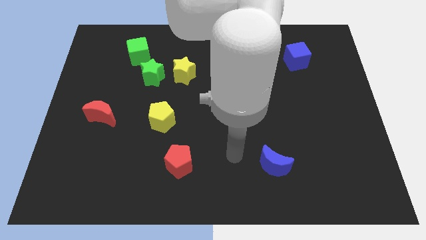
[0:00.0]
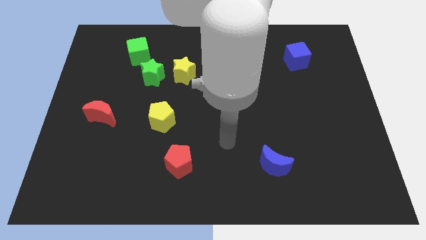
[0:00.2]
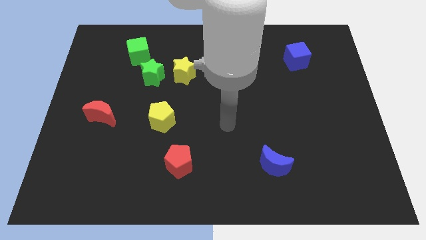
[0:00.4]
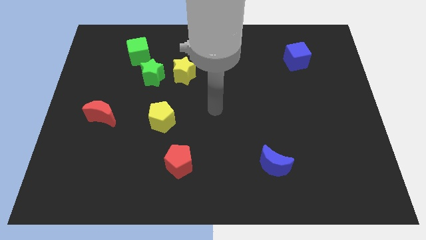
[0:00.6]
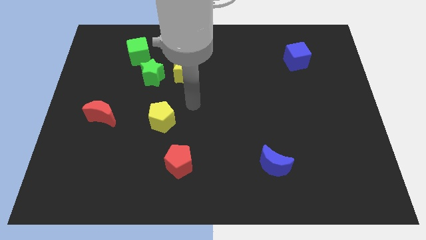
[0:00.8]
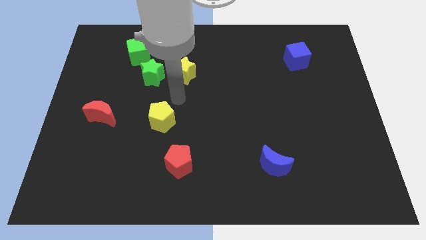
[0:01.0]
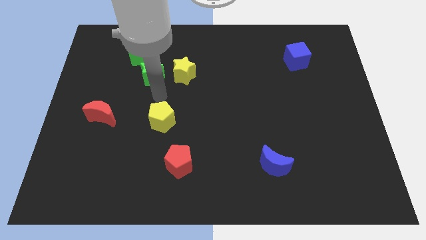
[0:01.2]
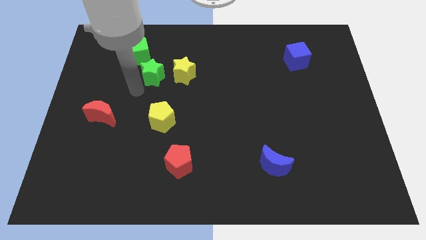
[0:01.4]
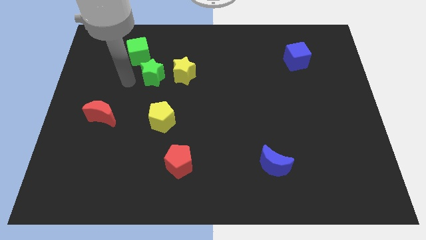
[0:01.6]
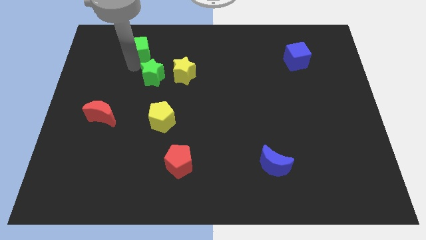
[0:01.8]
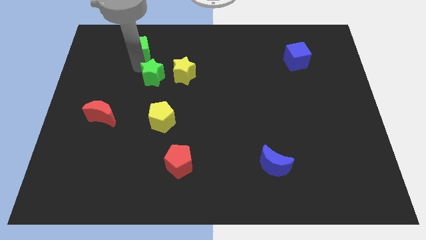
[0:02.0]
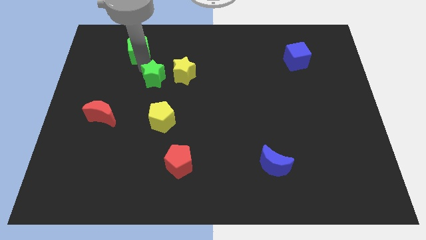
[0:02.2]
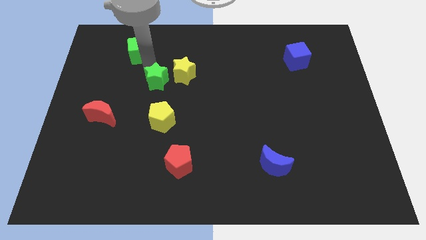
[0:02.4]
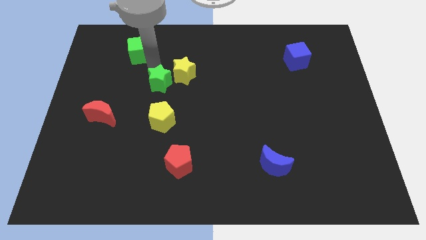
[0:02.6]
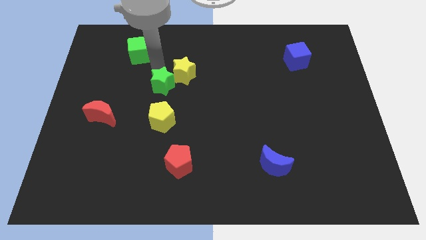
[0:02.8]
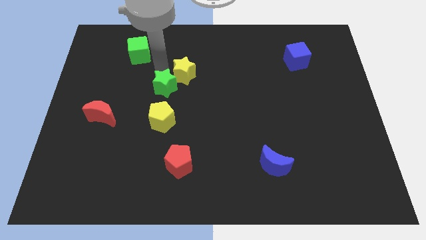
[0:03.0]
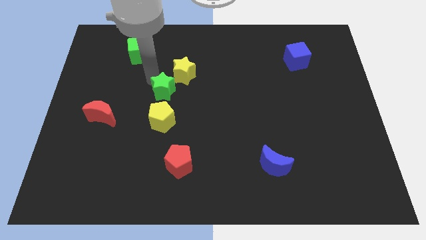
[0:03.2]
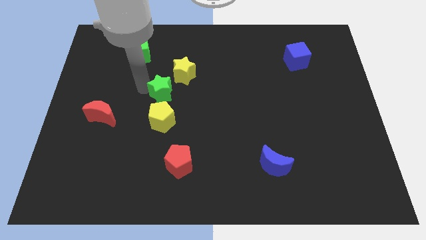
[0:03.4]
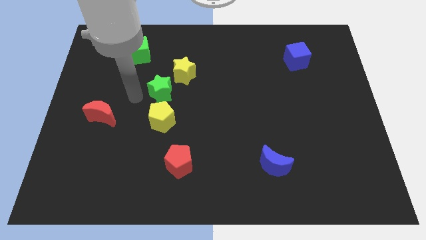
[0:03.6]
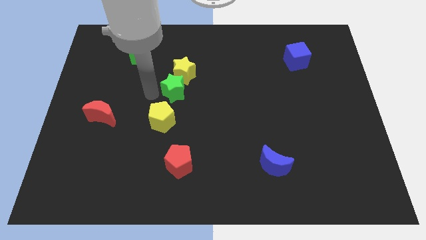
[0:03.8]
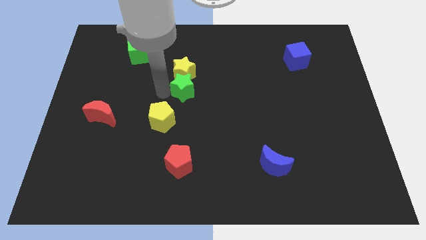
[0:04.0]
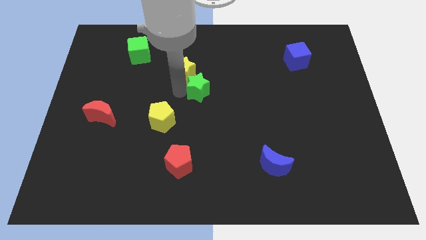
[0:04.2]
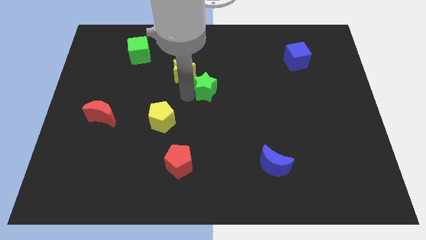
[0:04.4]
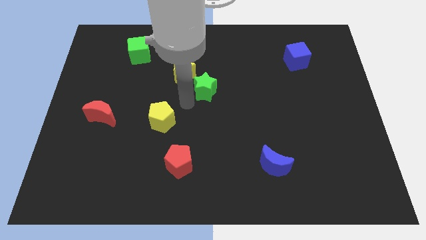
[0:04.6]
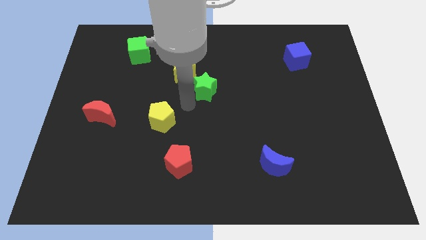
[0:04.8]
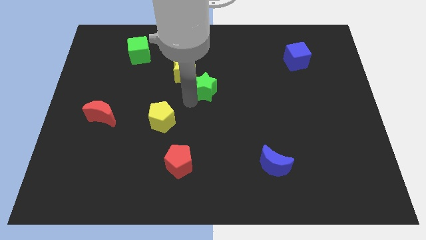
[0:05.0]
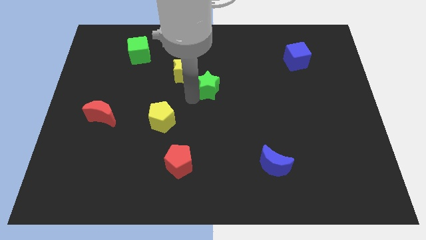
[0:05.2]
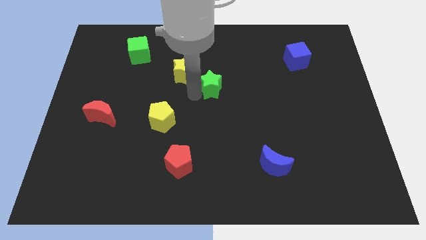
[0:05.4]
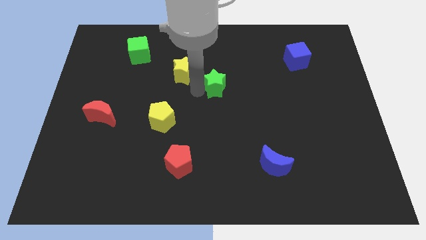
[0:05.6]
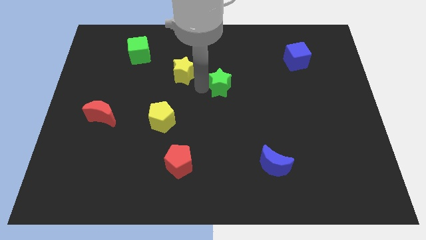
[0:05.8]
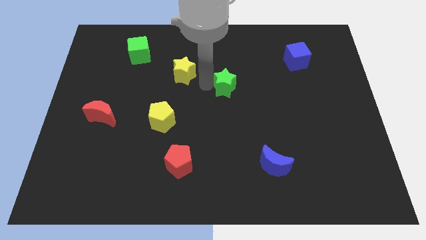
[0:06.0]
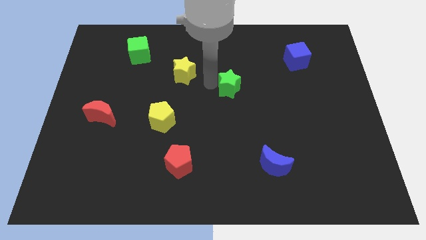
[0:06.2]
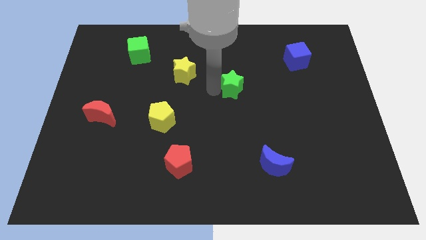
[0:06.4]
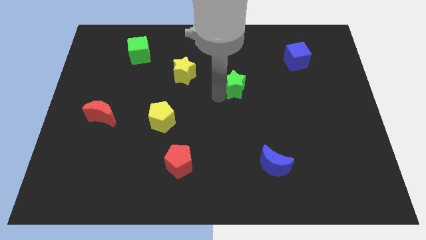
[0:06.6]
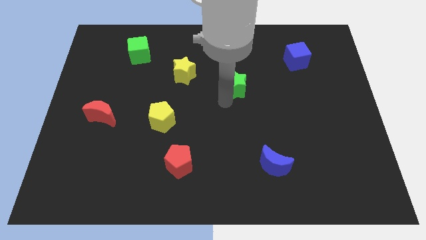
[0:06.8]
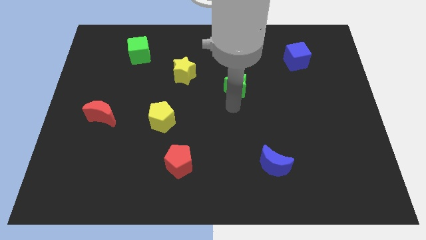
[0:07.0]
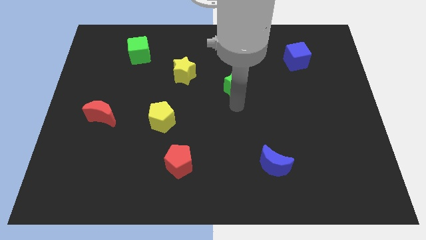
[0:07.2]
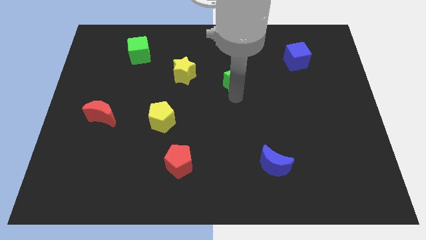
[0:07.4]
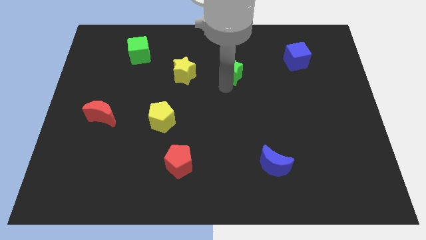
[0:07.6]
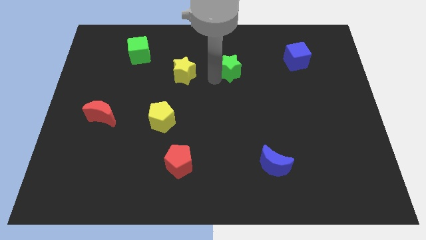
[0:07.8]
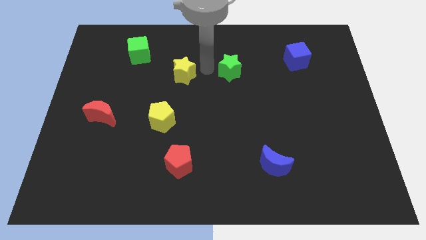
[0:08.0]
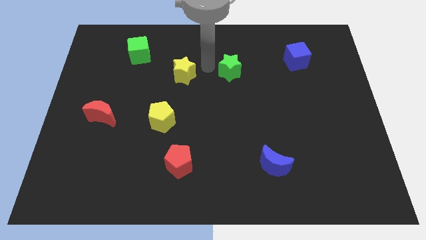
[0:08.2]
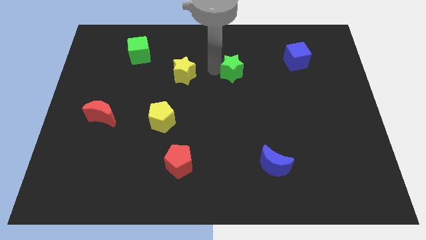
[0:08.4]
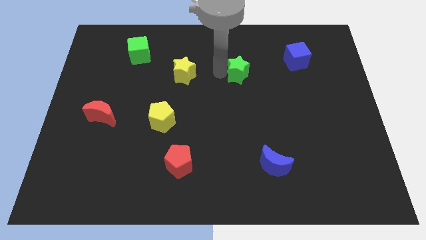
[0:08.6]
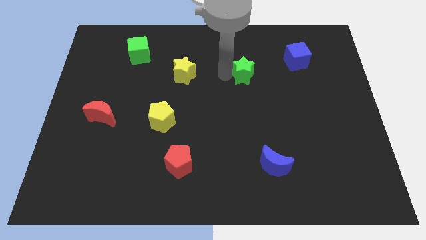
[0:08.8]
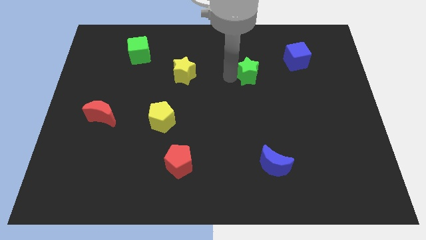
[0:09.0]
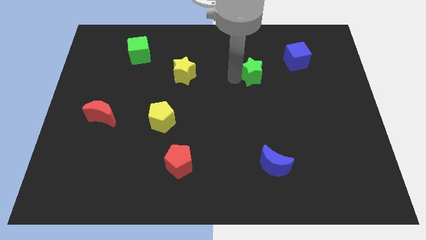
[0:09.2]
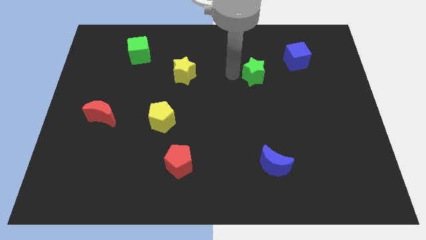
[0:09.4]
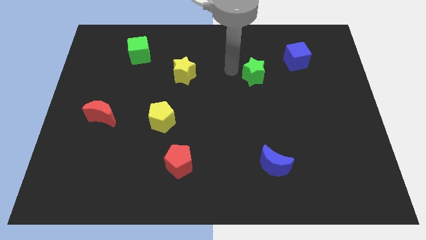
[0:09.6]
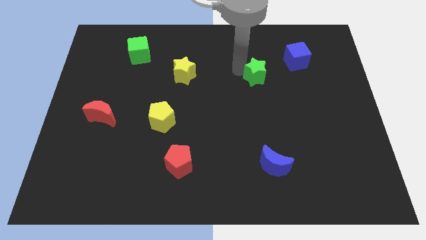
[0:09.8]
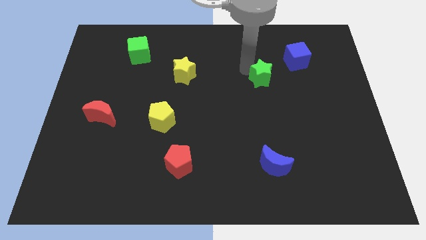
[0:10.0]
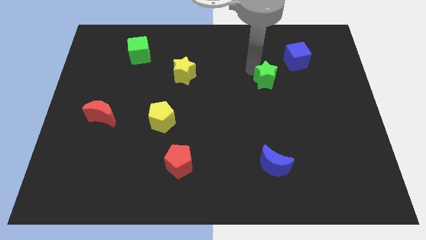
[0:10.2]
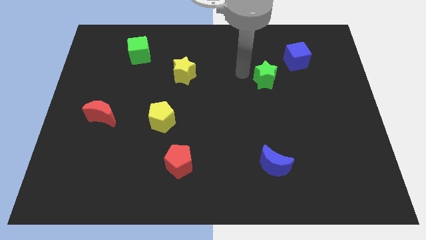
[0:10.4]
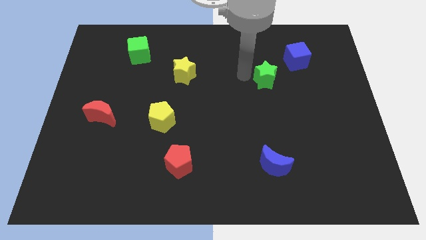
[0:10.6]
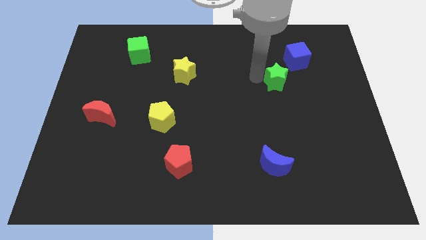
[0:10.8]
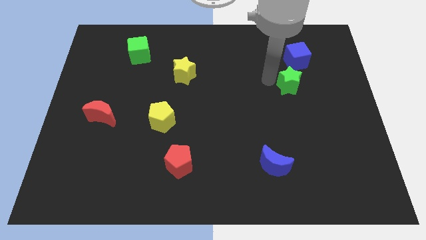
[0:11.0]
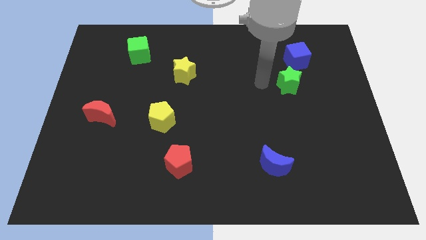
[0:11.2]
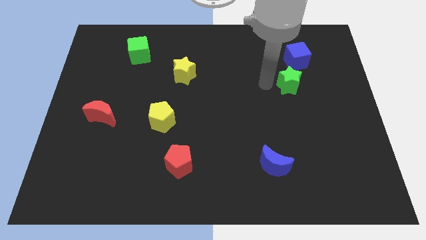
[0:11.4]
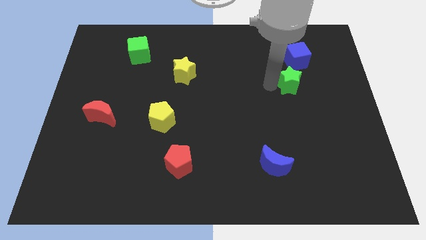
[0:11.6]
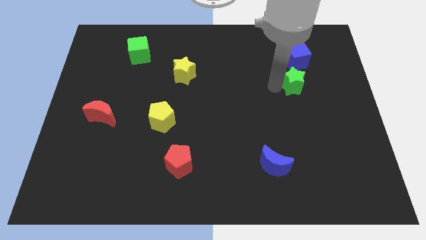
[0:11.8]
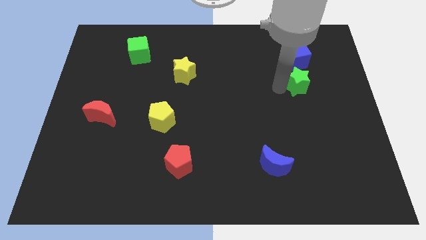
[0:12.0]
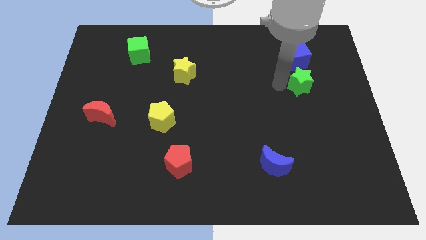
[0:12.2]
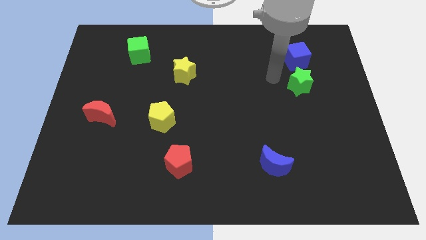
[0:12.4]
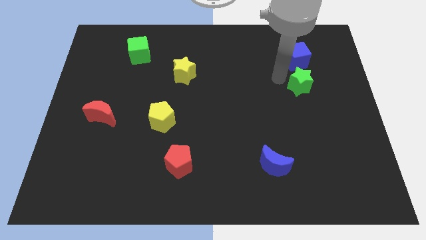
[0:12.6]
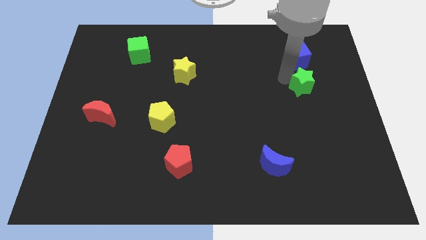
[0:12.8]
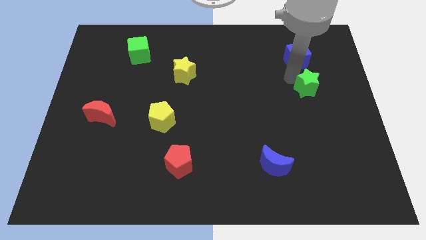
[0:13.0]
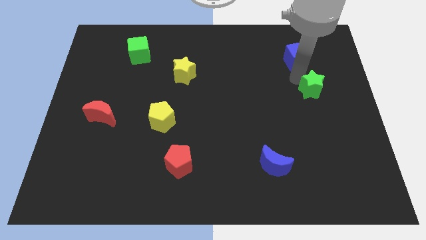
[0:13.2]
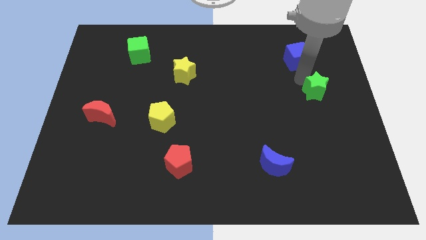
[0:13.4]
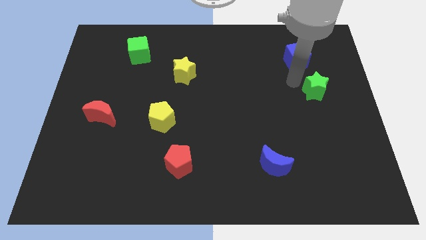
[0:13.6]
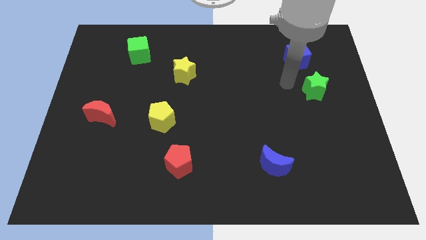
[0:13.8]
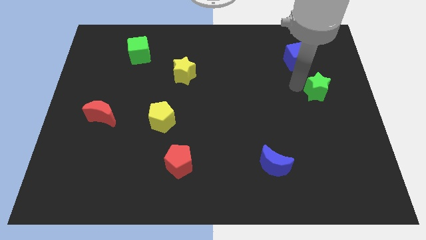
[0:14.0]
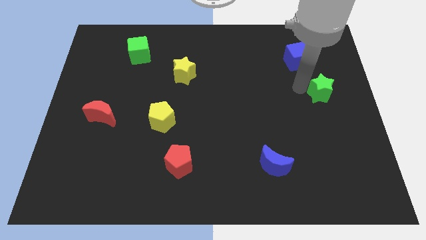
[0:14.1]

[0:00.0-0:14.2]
slide the green star to the right side of the board

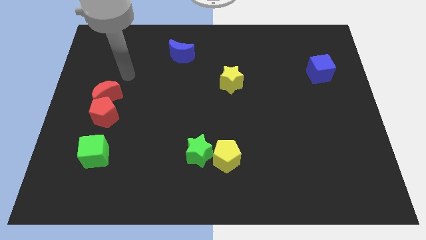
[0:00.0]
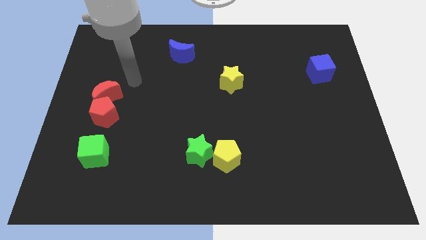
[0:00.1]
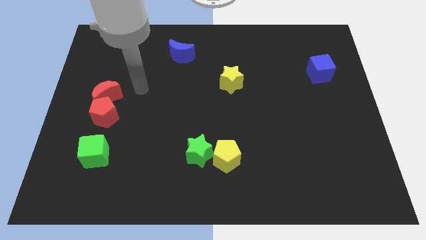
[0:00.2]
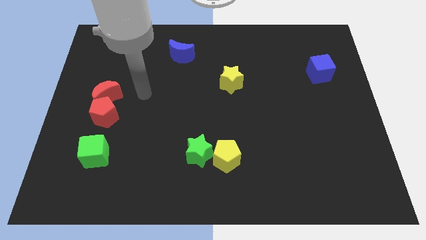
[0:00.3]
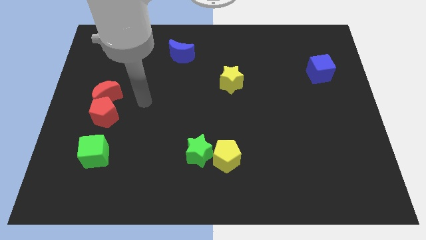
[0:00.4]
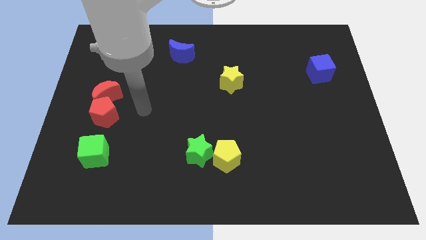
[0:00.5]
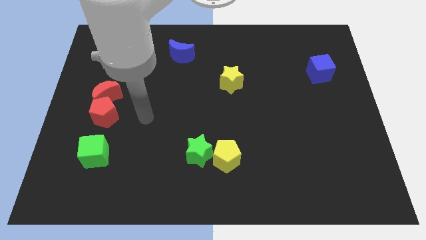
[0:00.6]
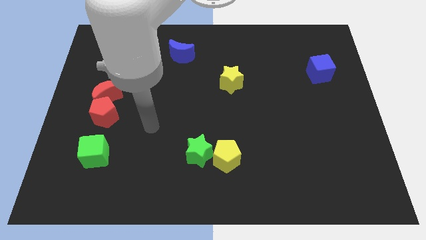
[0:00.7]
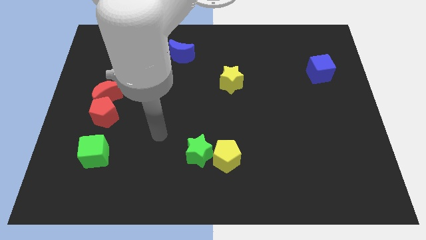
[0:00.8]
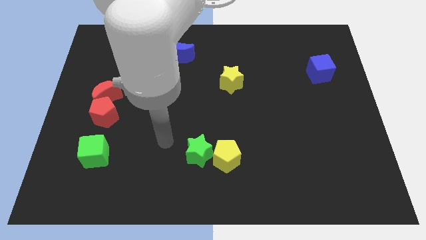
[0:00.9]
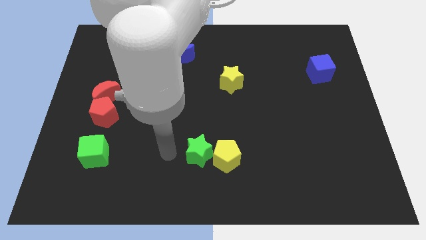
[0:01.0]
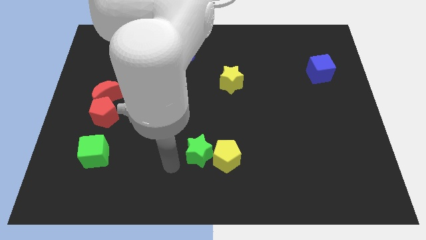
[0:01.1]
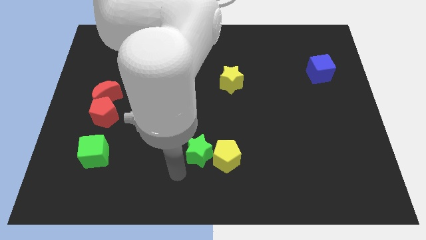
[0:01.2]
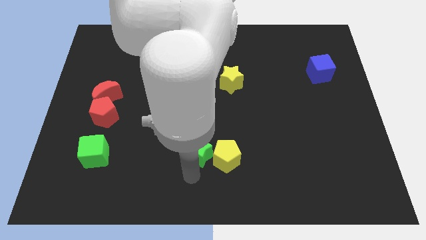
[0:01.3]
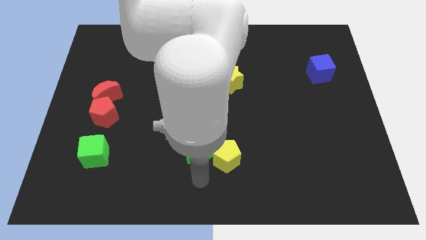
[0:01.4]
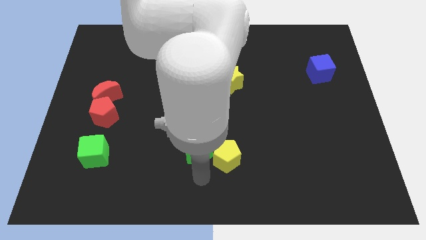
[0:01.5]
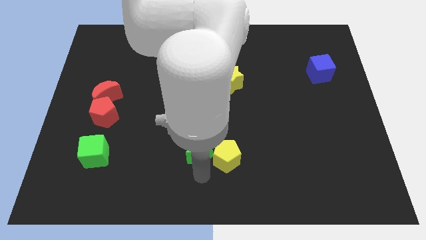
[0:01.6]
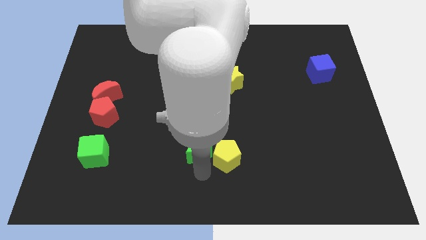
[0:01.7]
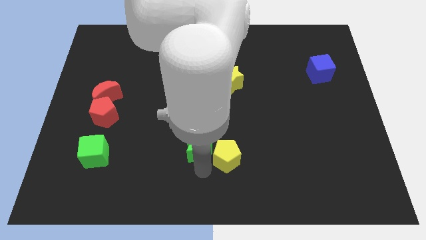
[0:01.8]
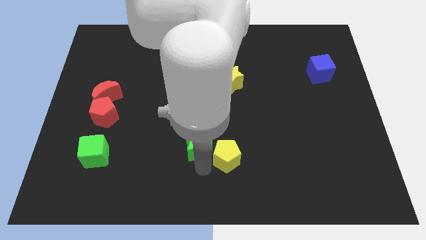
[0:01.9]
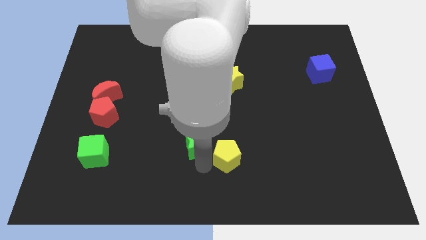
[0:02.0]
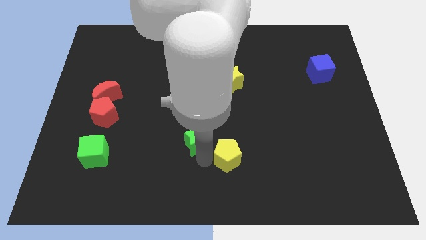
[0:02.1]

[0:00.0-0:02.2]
slide the green star to the center
